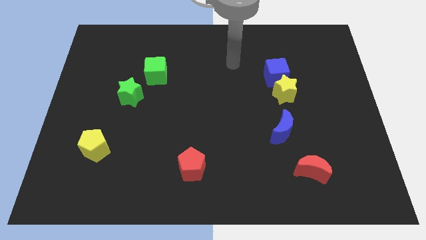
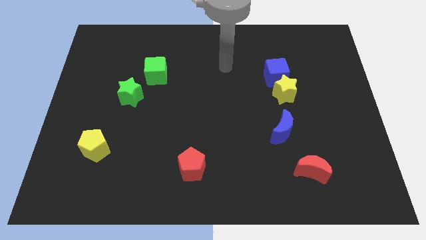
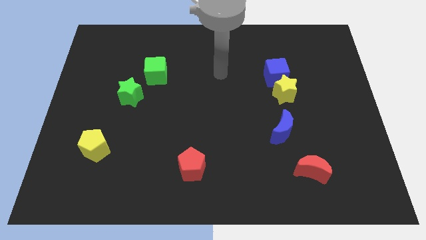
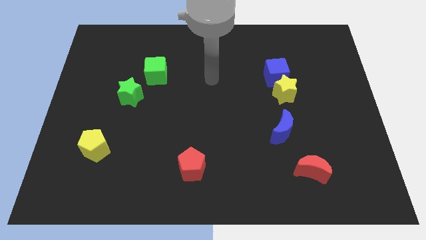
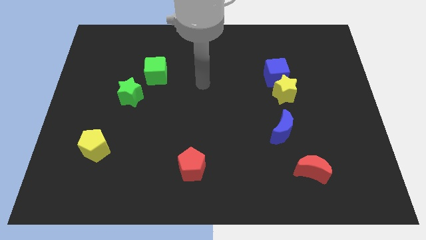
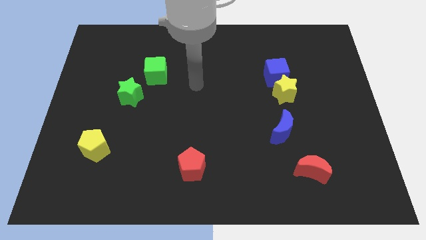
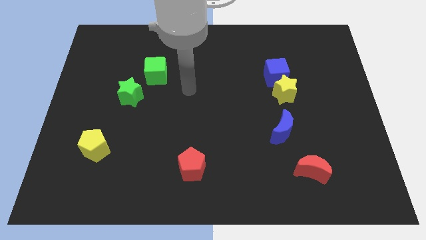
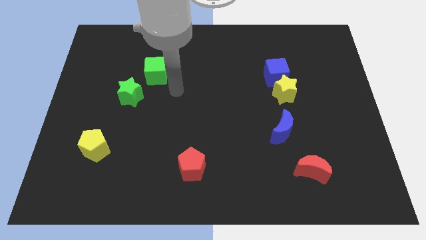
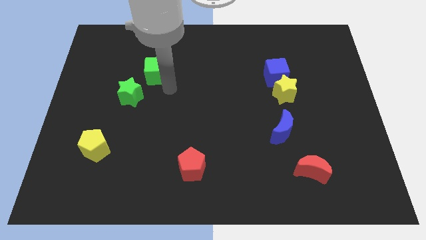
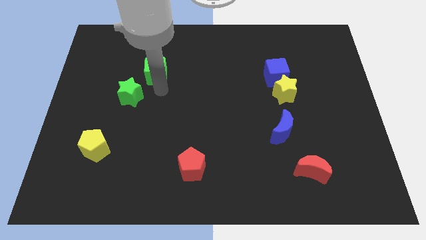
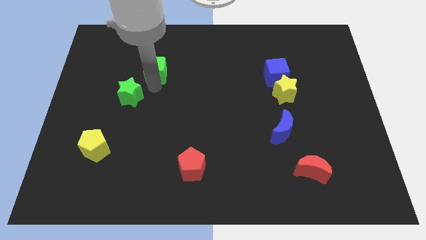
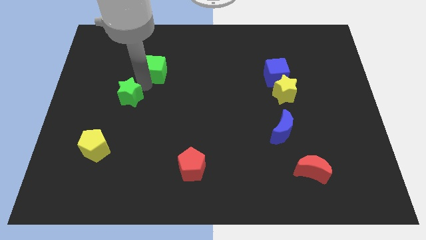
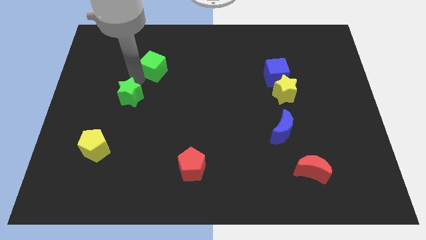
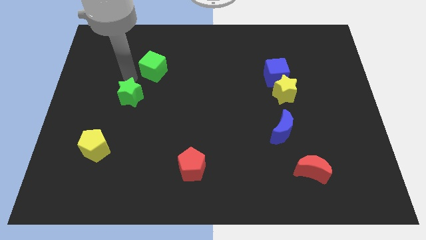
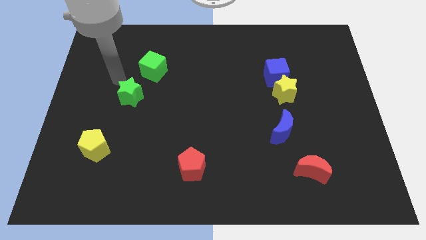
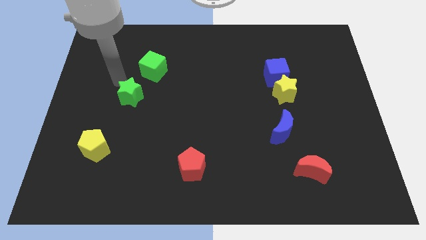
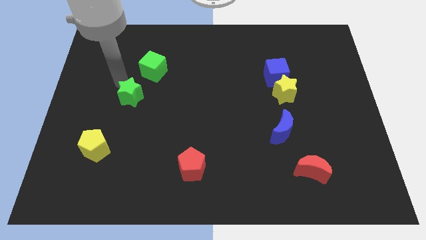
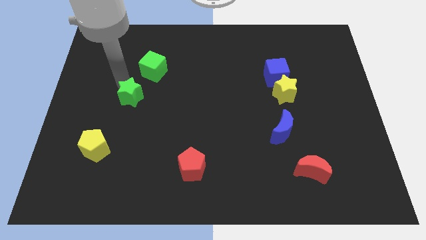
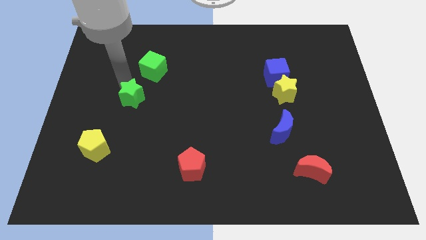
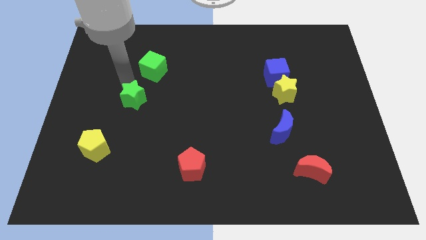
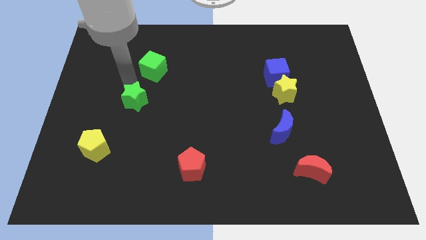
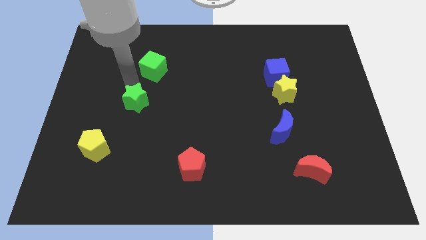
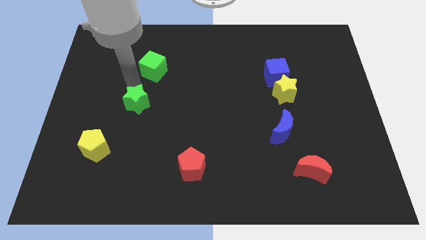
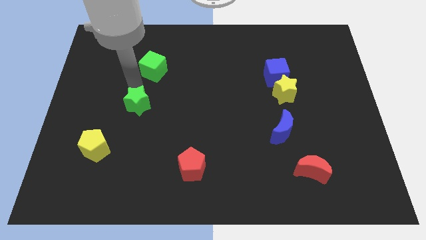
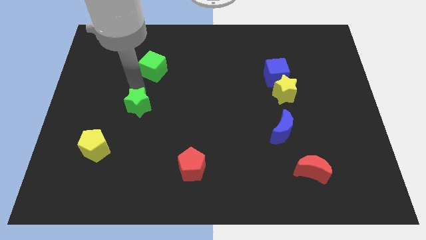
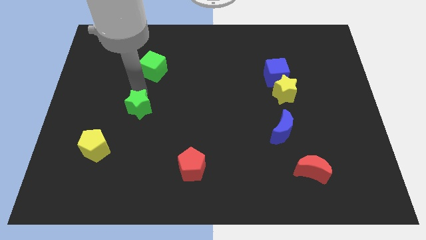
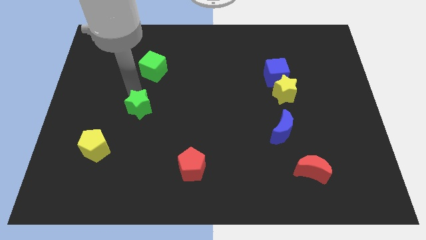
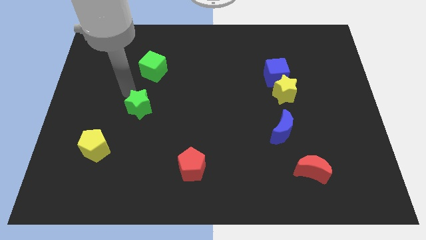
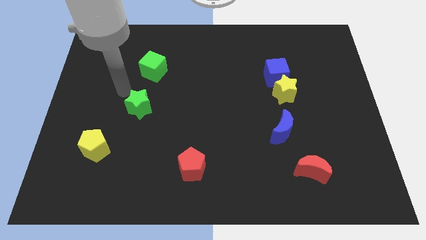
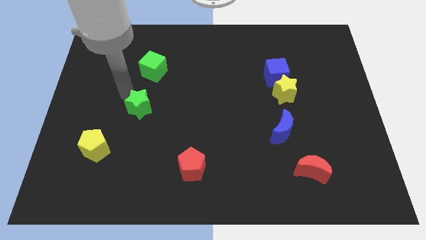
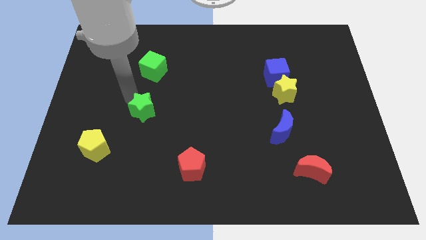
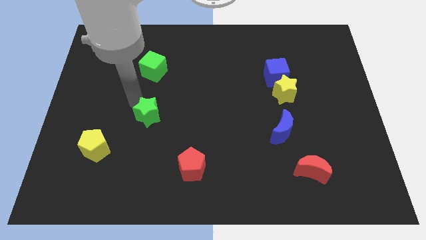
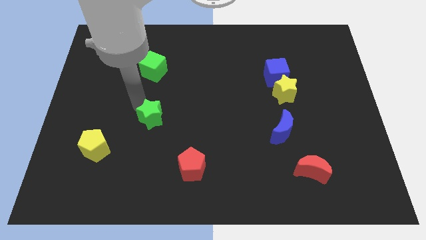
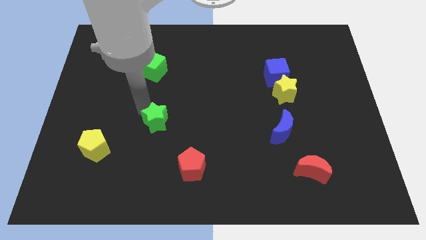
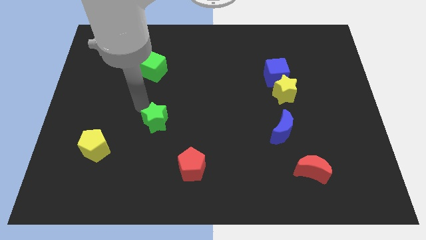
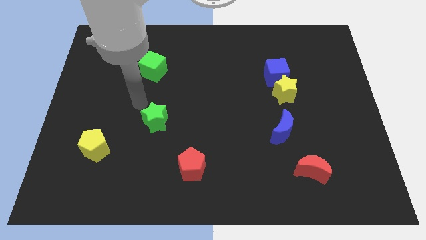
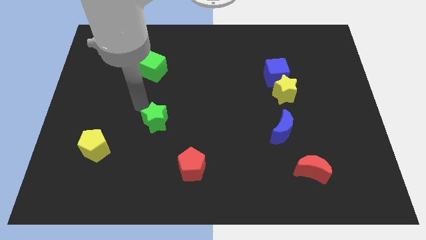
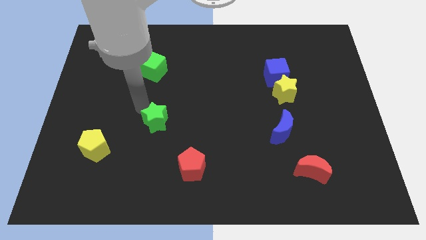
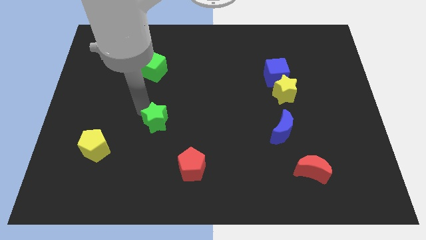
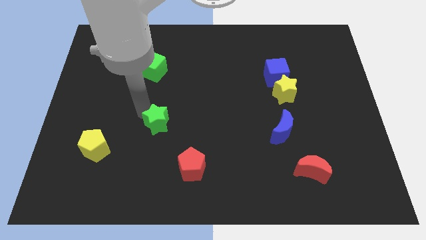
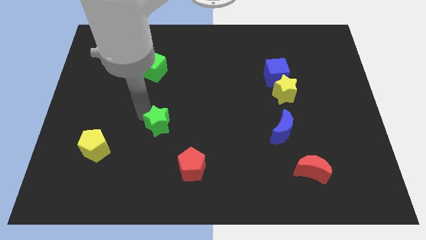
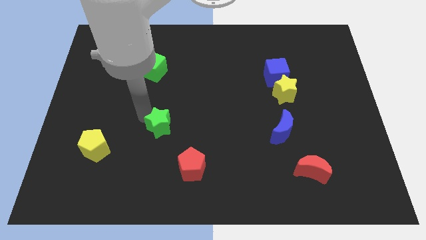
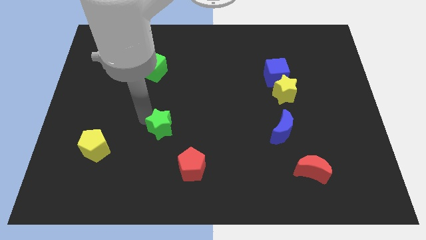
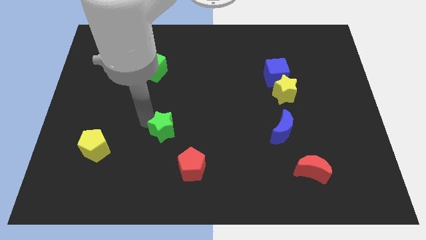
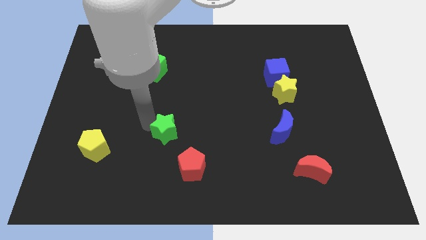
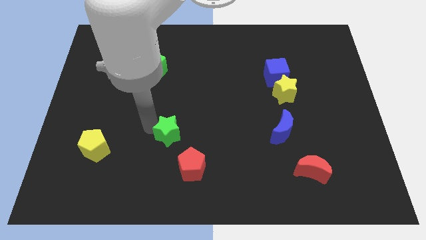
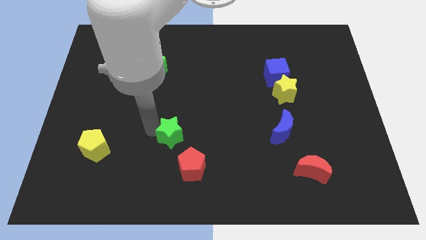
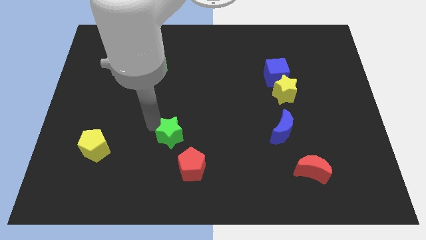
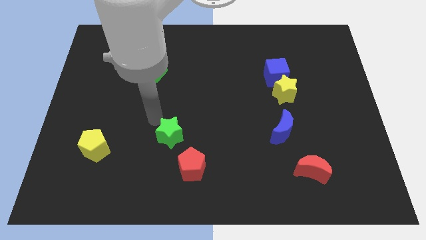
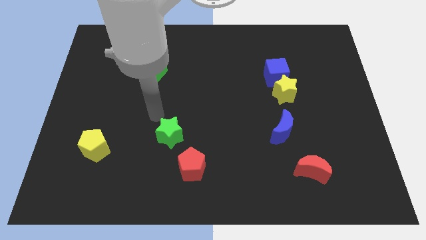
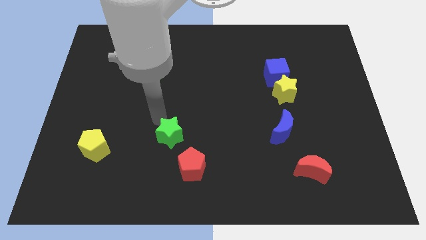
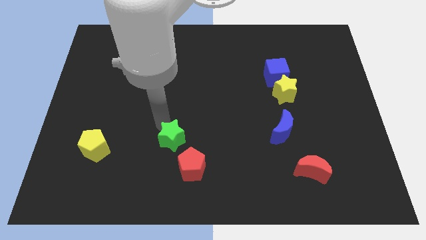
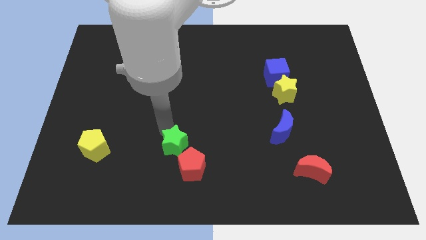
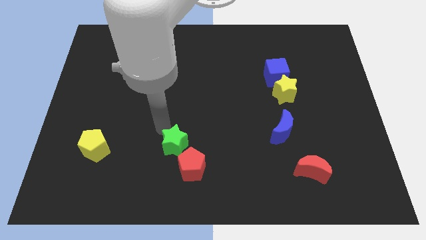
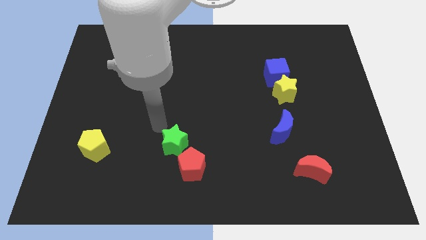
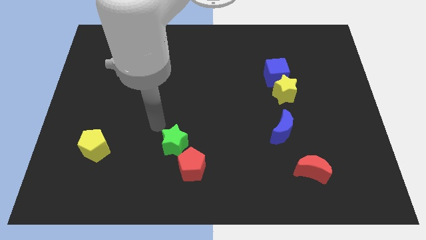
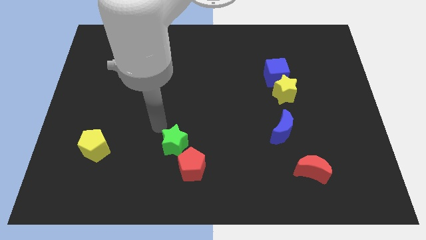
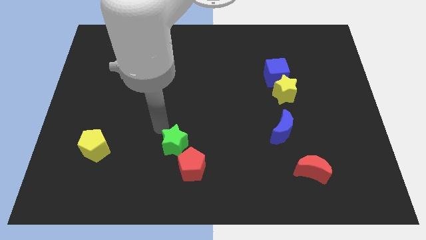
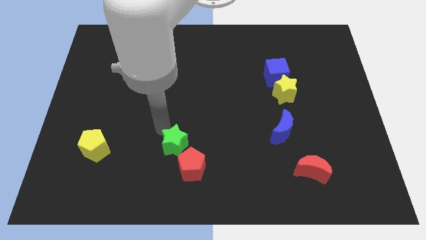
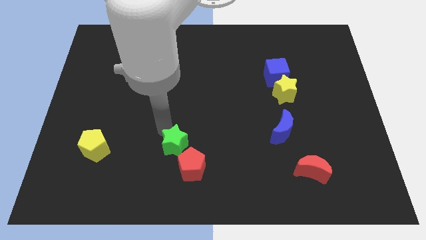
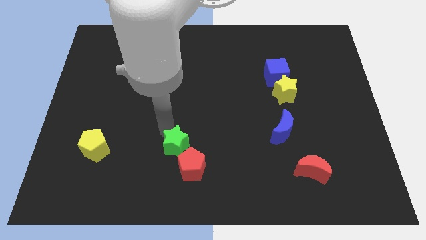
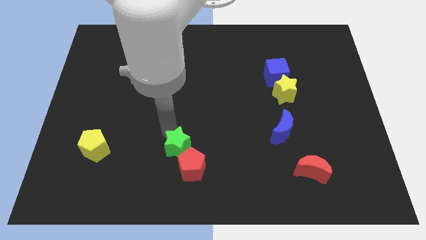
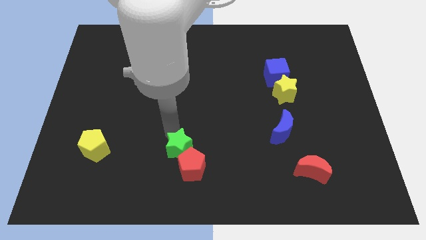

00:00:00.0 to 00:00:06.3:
slide the green star towards the red pentagon

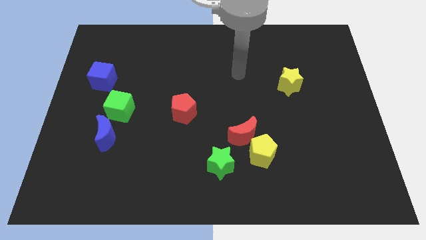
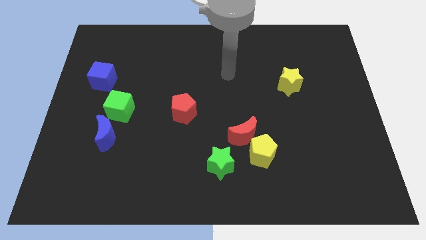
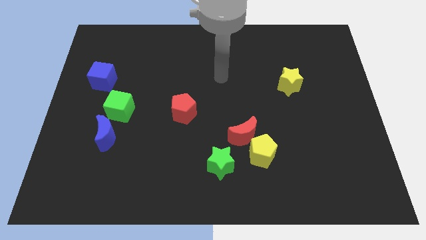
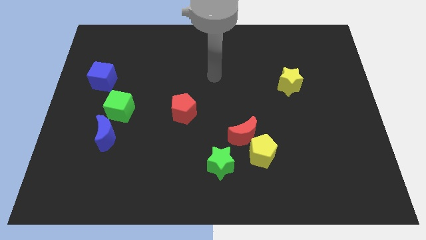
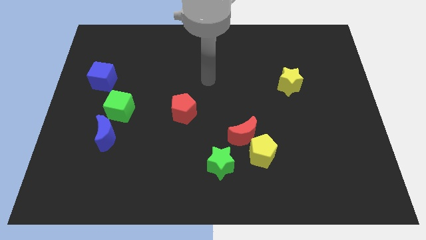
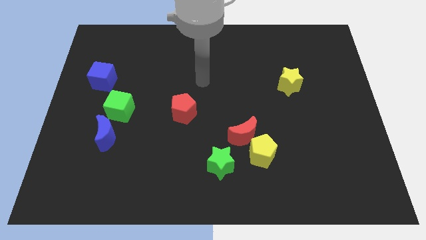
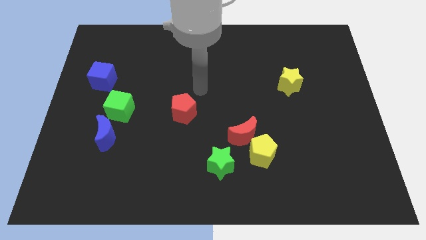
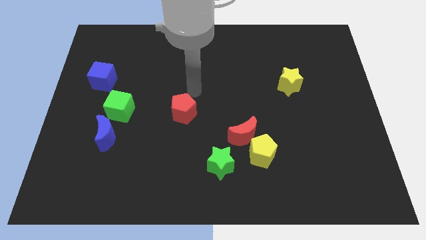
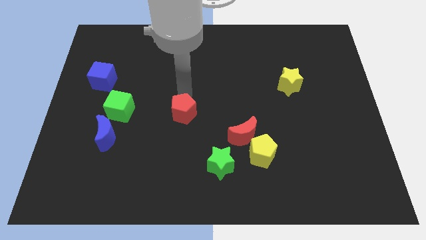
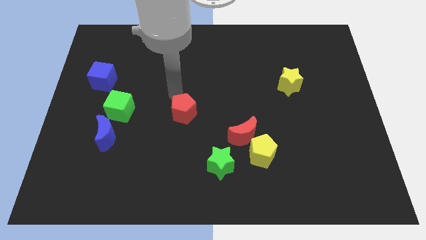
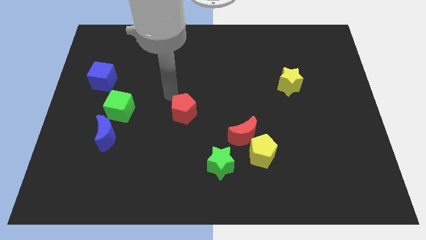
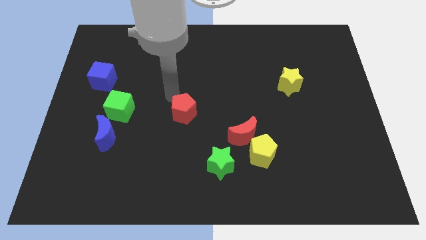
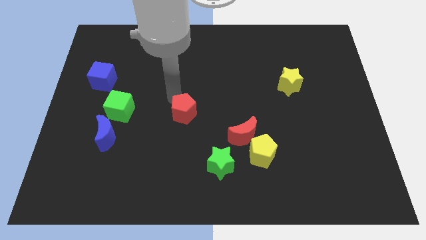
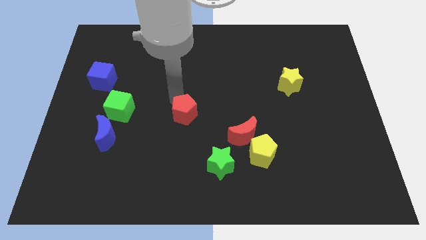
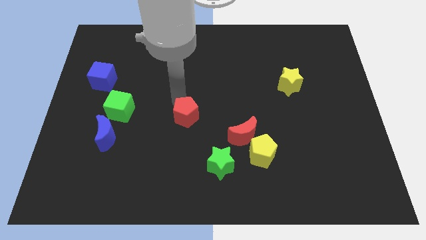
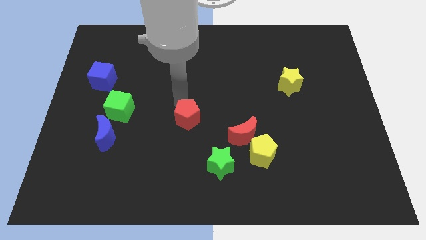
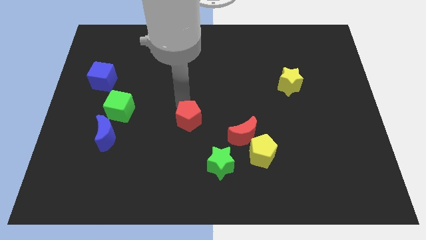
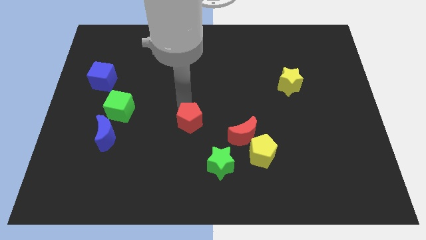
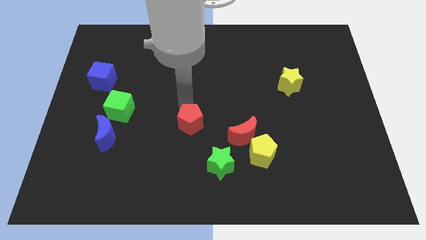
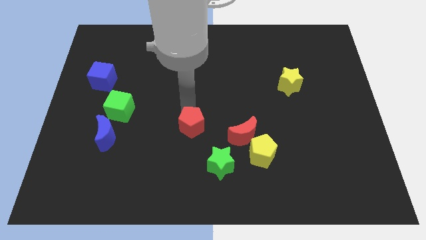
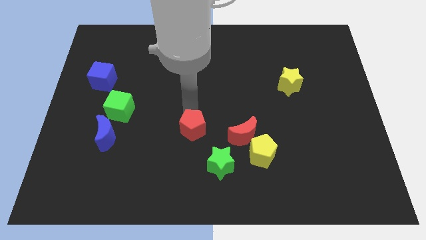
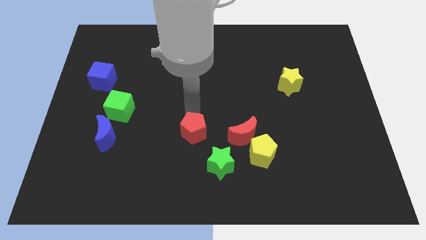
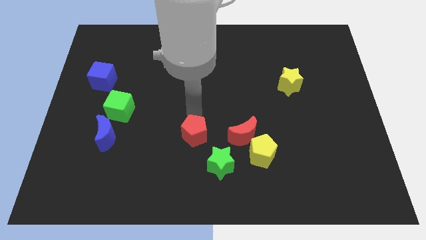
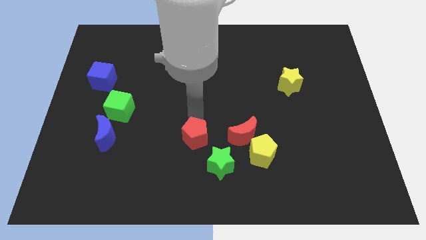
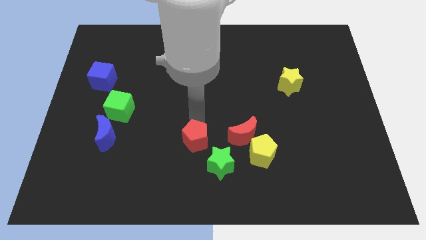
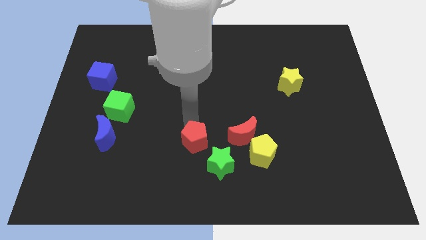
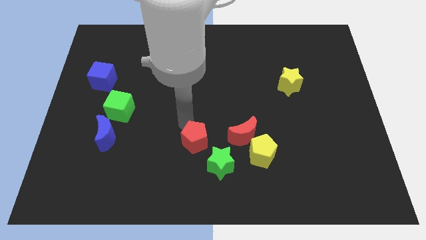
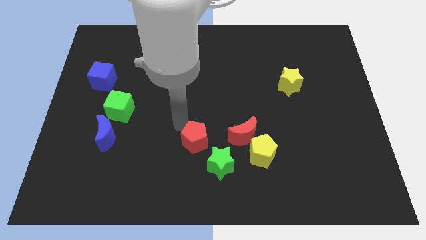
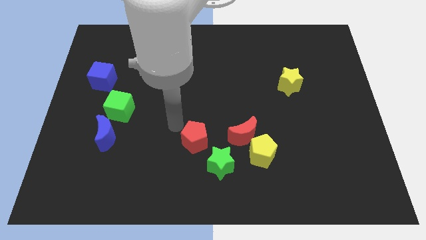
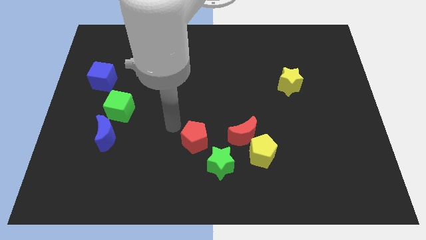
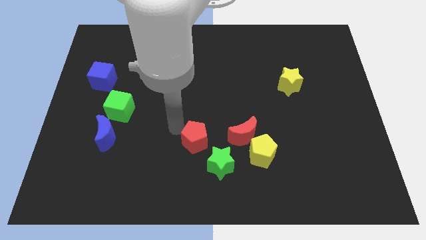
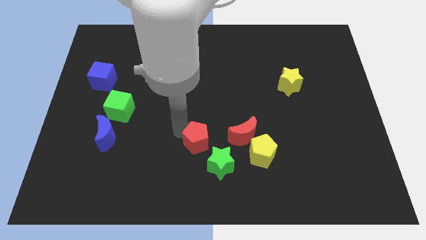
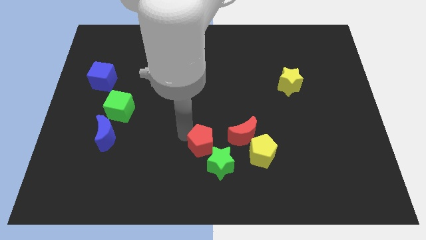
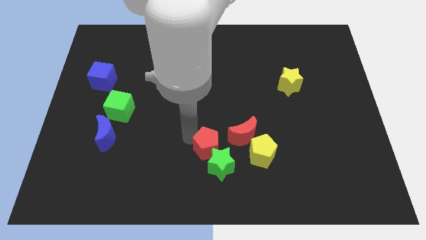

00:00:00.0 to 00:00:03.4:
put the red pentagon to the green star
